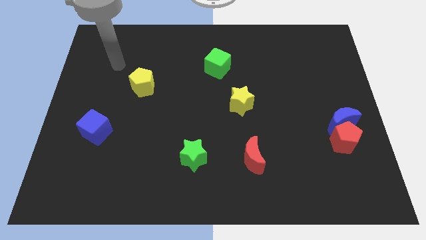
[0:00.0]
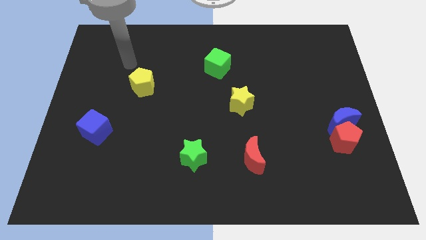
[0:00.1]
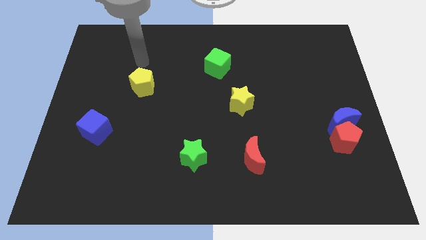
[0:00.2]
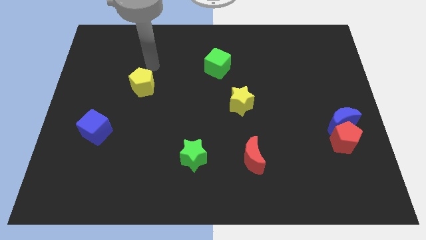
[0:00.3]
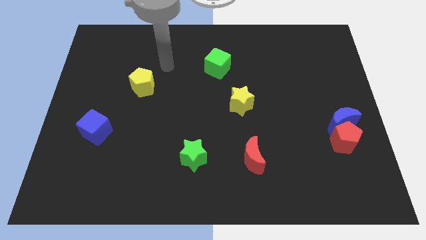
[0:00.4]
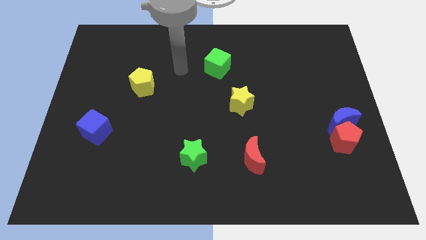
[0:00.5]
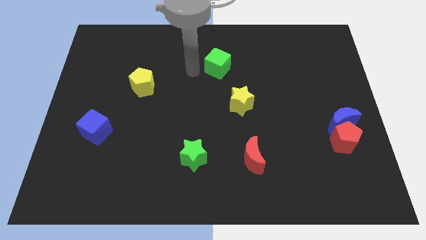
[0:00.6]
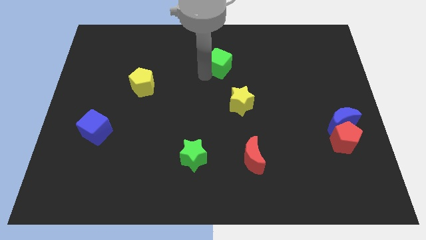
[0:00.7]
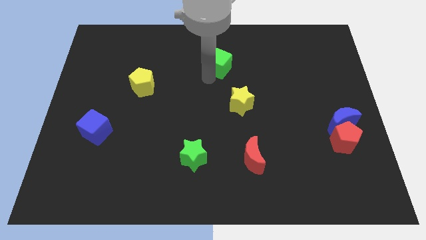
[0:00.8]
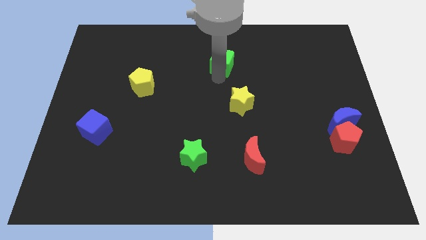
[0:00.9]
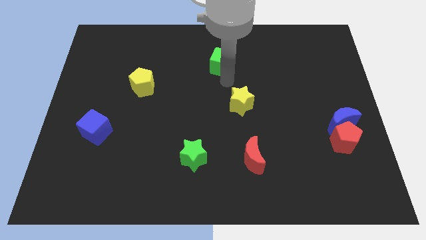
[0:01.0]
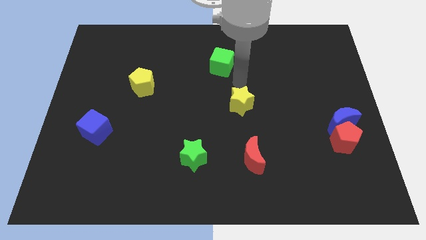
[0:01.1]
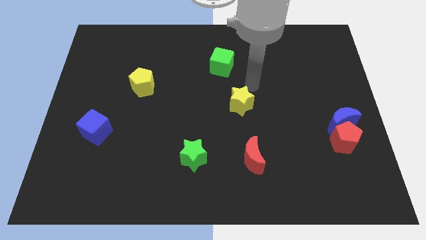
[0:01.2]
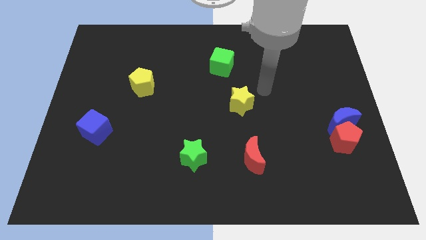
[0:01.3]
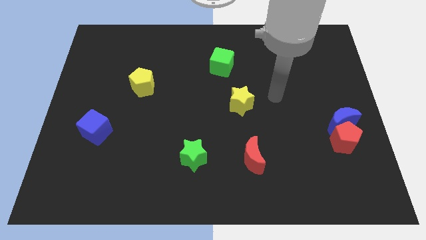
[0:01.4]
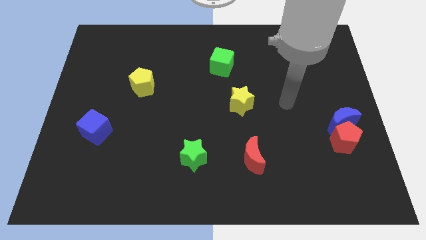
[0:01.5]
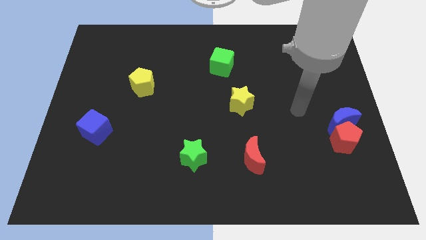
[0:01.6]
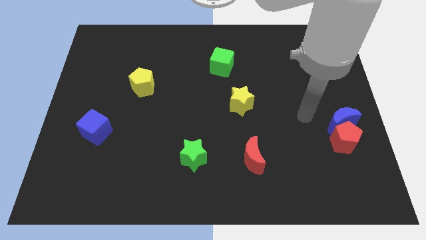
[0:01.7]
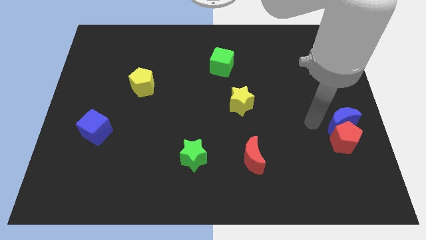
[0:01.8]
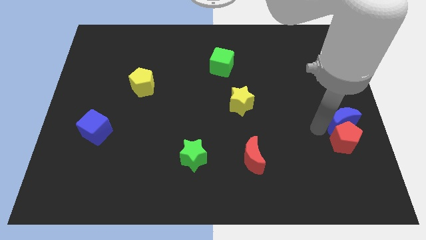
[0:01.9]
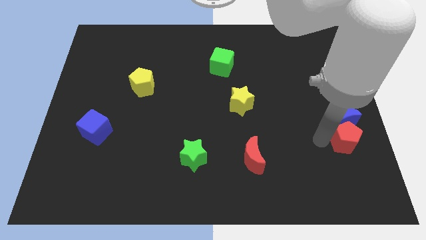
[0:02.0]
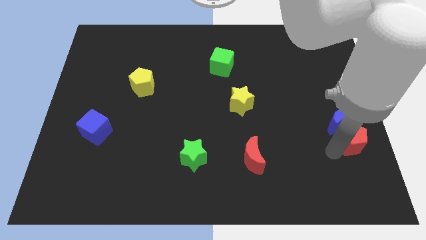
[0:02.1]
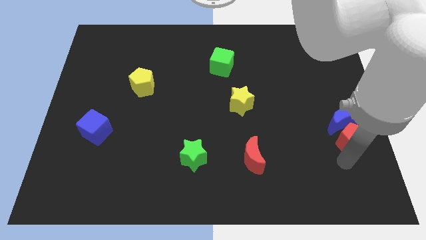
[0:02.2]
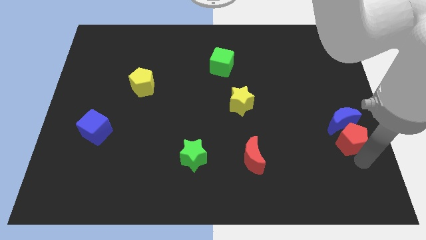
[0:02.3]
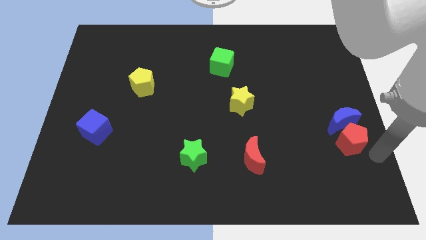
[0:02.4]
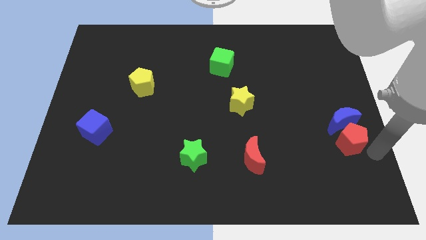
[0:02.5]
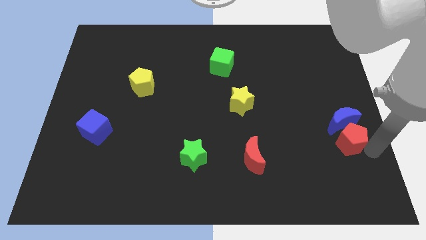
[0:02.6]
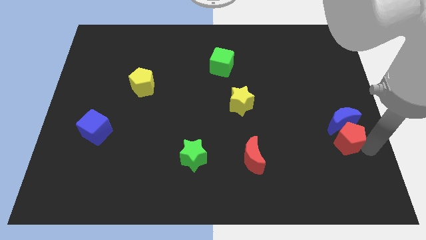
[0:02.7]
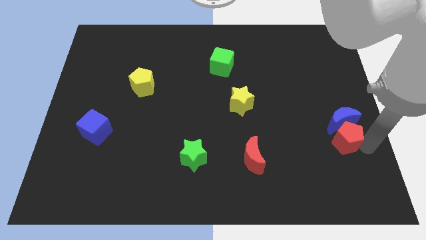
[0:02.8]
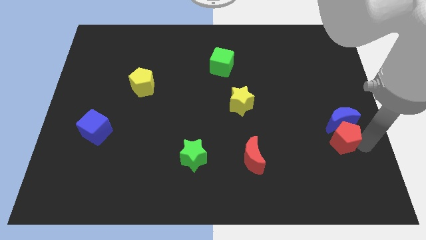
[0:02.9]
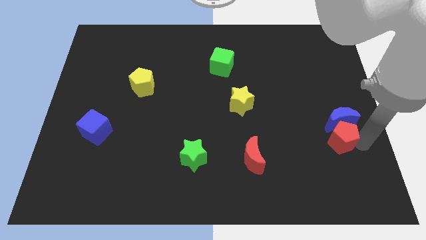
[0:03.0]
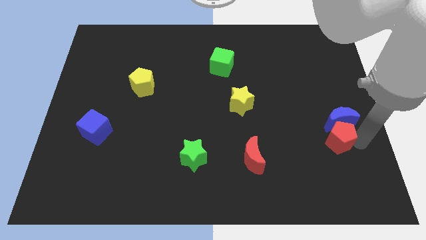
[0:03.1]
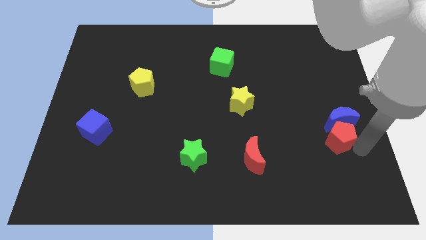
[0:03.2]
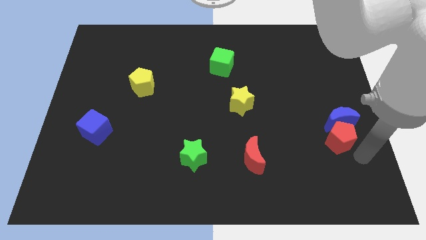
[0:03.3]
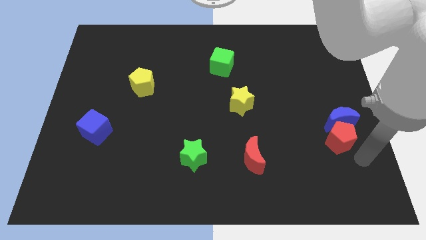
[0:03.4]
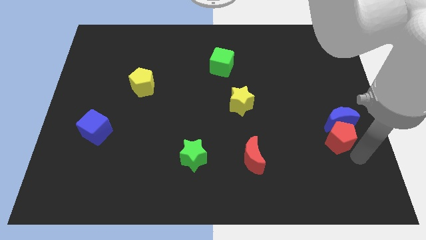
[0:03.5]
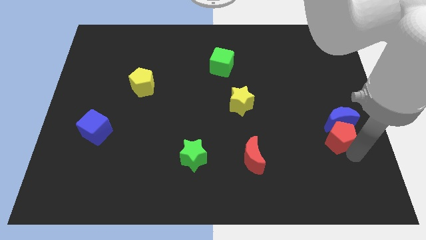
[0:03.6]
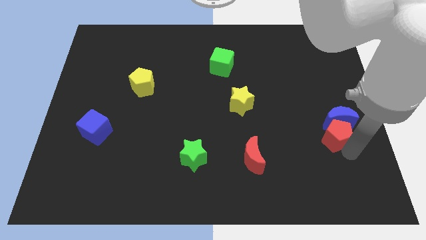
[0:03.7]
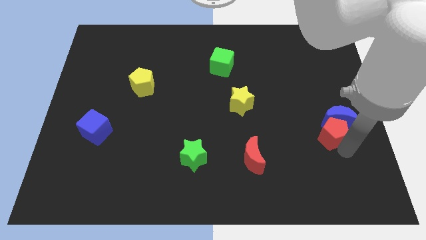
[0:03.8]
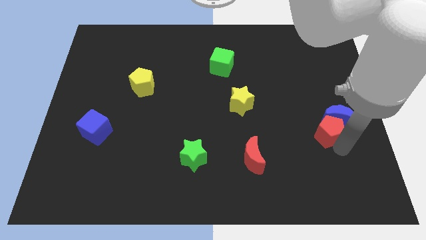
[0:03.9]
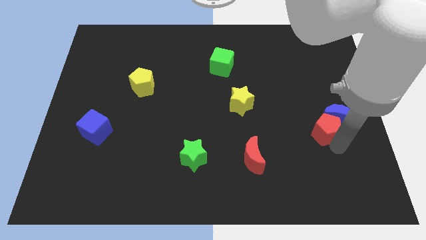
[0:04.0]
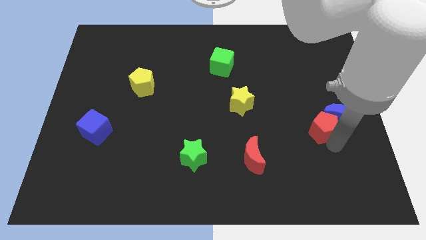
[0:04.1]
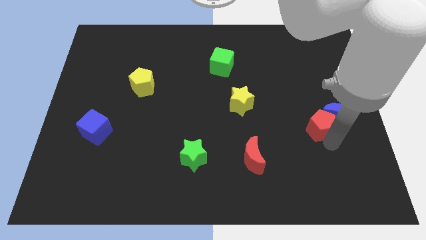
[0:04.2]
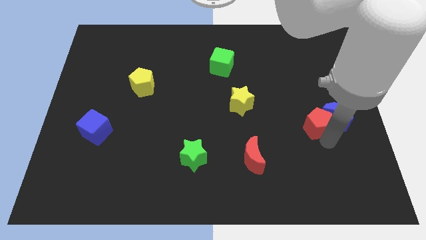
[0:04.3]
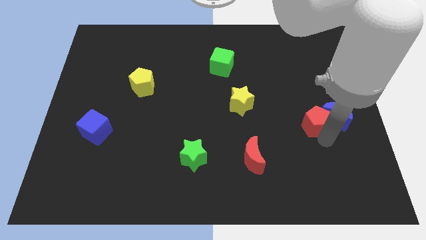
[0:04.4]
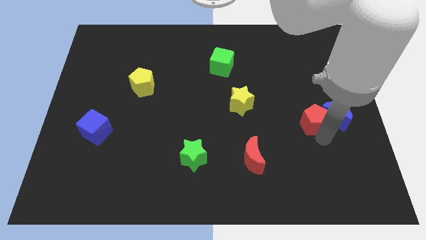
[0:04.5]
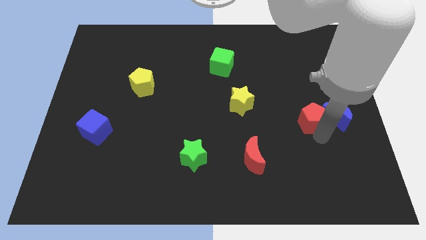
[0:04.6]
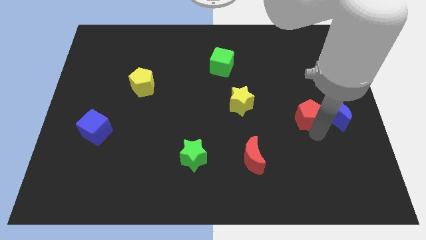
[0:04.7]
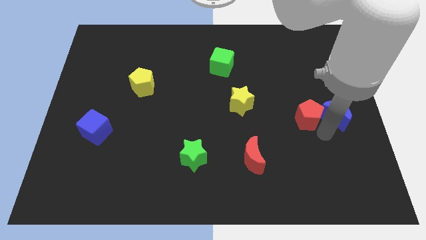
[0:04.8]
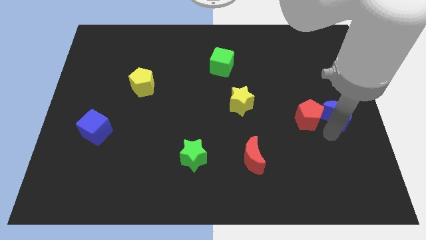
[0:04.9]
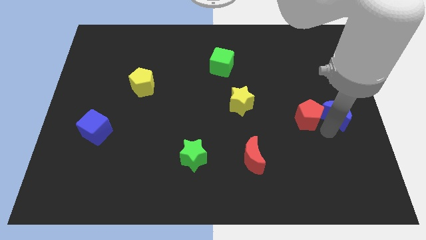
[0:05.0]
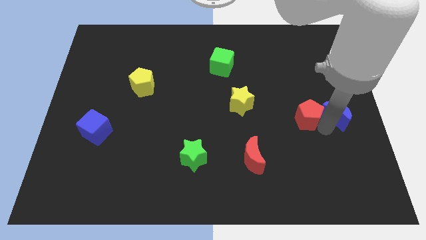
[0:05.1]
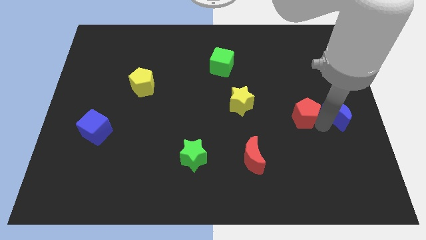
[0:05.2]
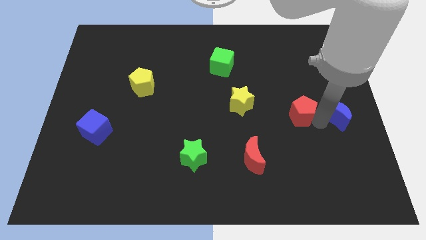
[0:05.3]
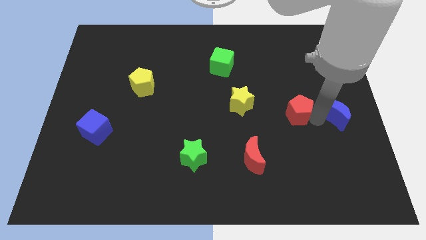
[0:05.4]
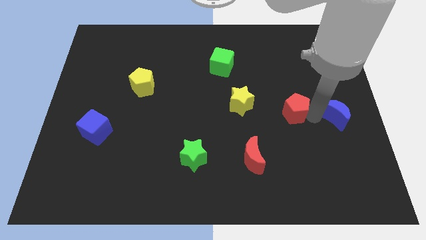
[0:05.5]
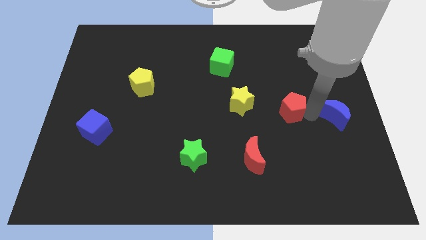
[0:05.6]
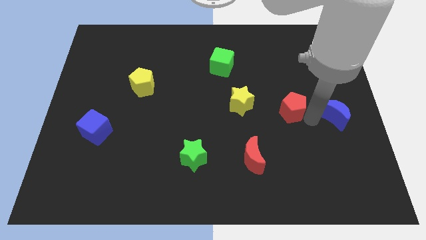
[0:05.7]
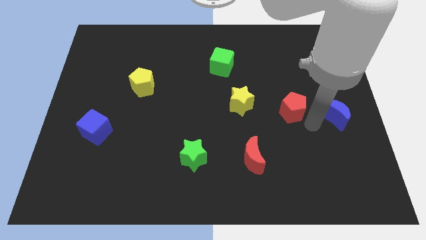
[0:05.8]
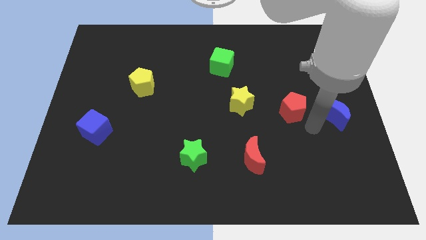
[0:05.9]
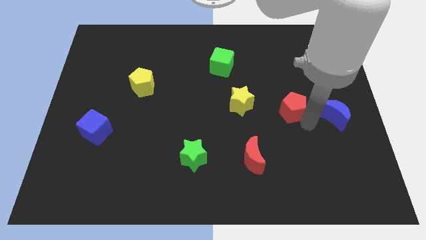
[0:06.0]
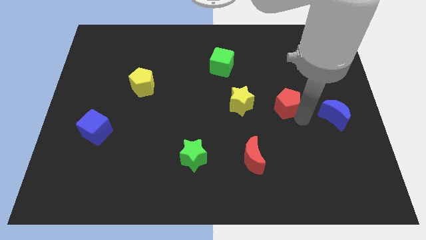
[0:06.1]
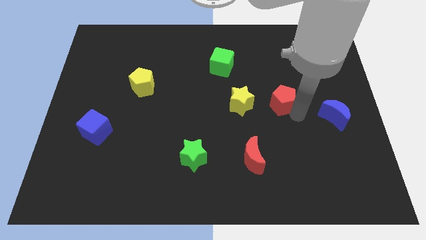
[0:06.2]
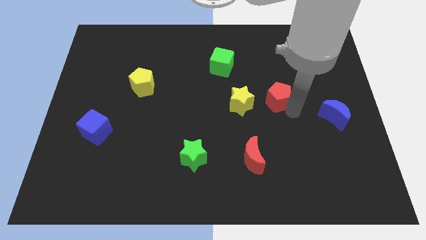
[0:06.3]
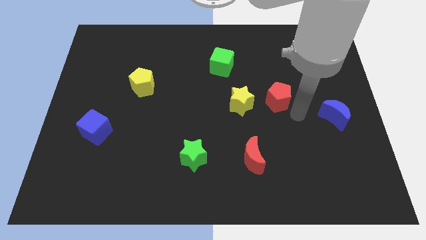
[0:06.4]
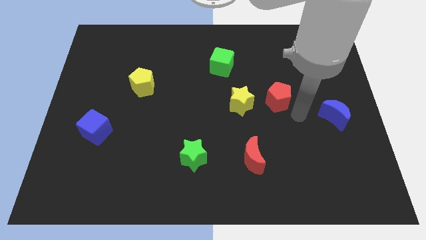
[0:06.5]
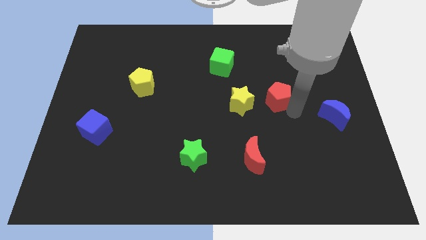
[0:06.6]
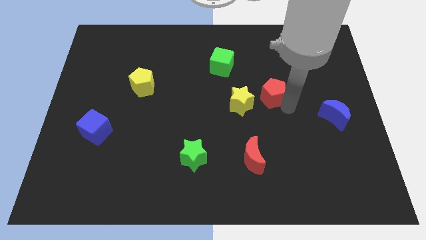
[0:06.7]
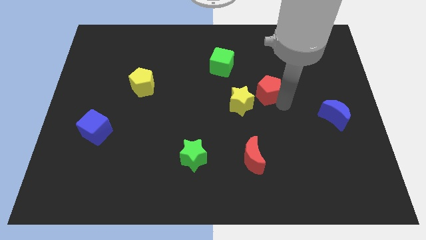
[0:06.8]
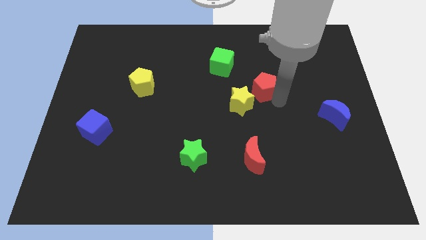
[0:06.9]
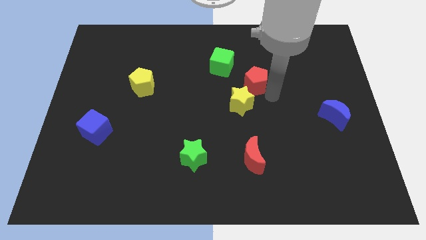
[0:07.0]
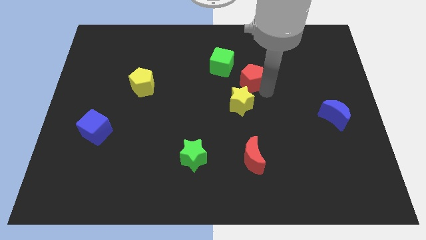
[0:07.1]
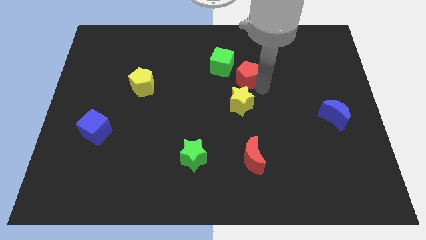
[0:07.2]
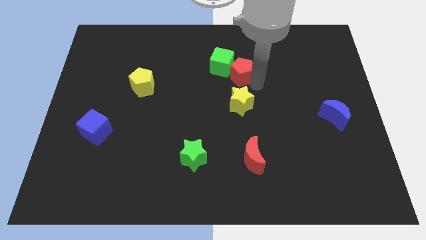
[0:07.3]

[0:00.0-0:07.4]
slide the red pentagon to the green cube
